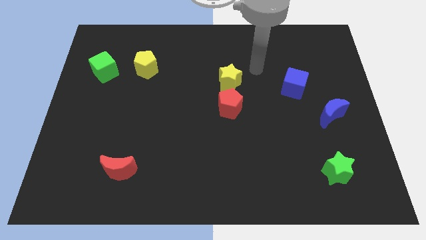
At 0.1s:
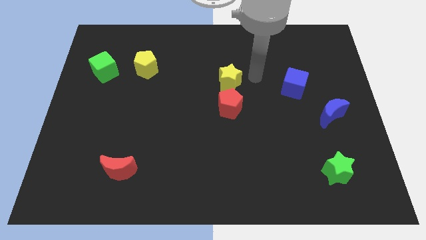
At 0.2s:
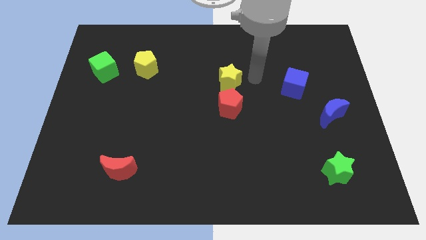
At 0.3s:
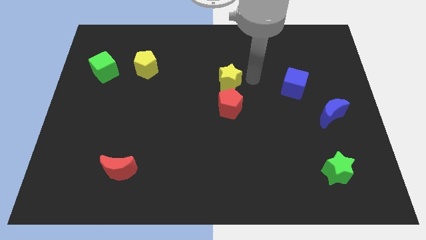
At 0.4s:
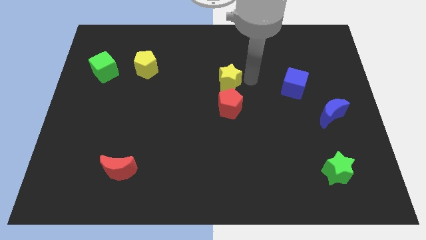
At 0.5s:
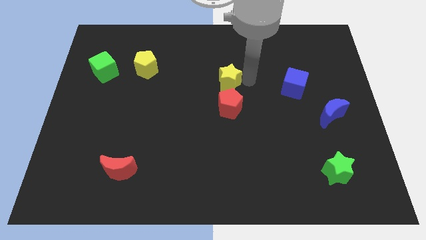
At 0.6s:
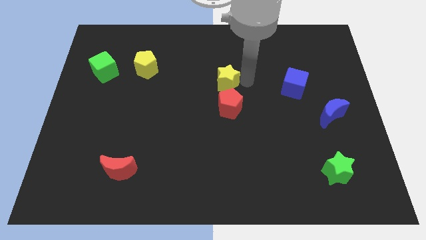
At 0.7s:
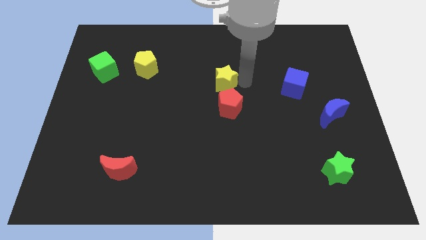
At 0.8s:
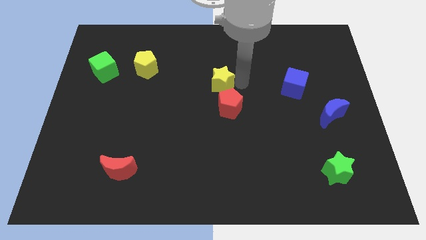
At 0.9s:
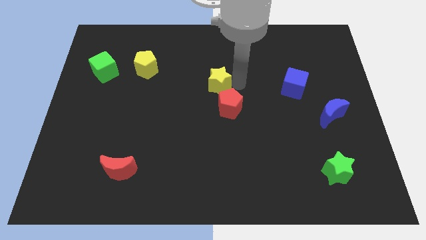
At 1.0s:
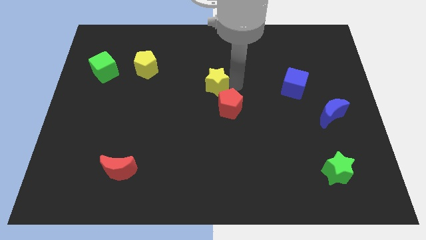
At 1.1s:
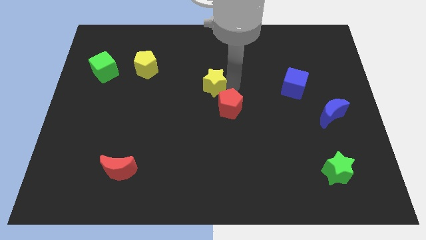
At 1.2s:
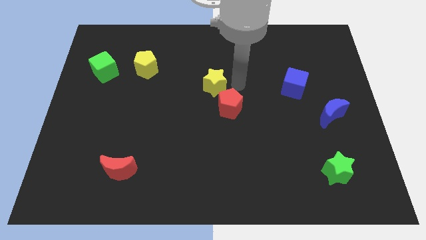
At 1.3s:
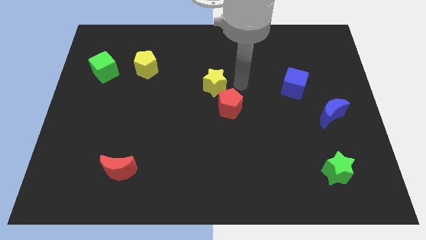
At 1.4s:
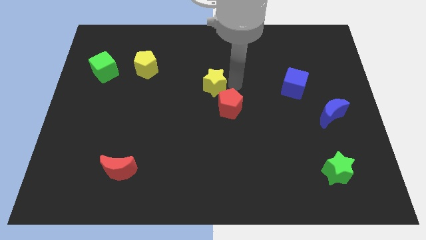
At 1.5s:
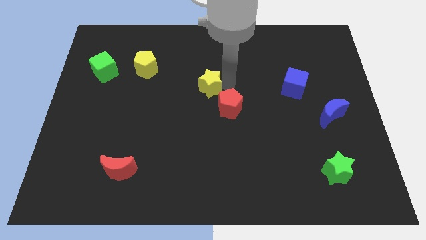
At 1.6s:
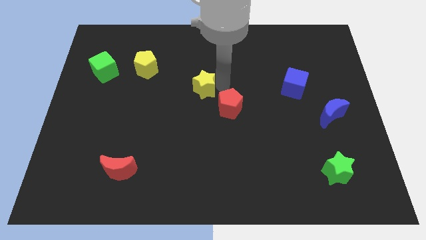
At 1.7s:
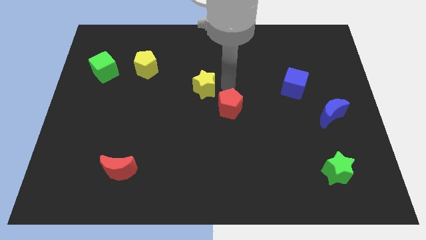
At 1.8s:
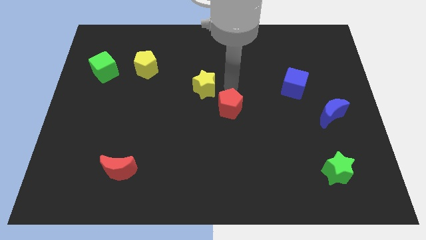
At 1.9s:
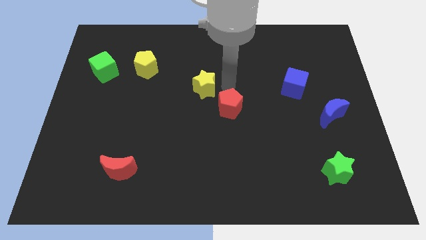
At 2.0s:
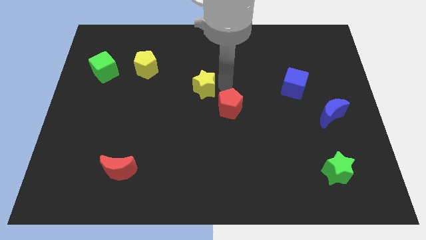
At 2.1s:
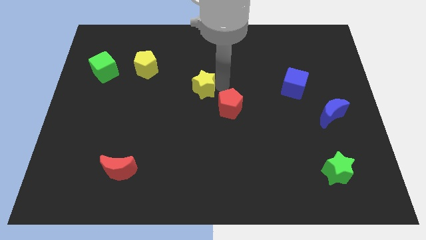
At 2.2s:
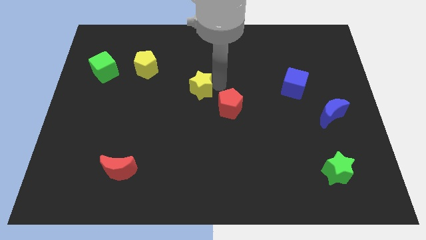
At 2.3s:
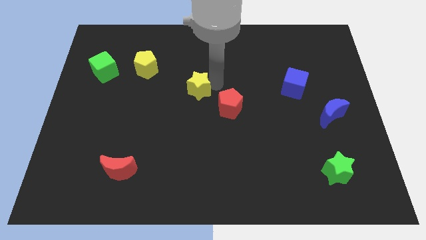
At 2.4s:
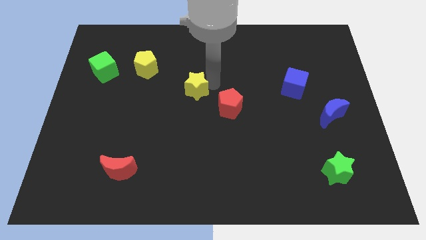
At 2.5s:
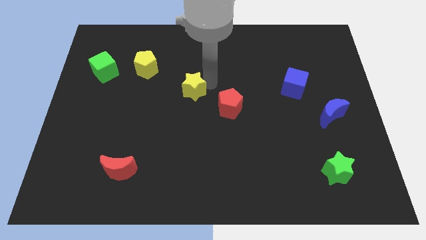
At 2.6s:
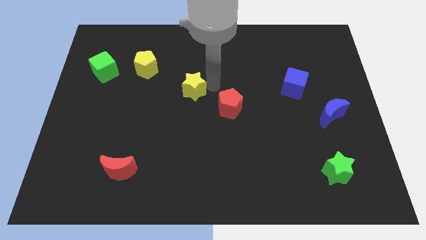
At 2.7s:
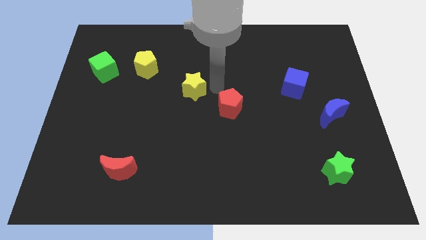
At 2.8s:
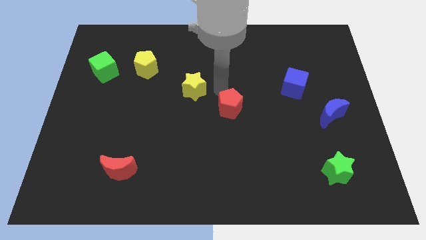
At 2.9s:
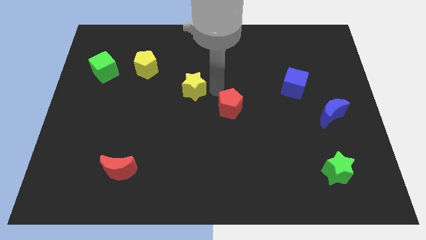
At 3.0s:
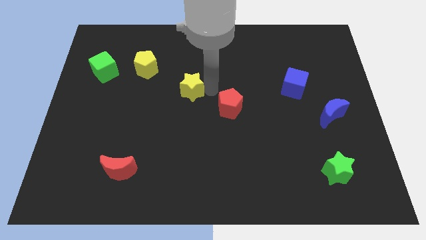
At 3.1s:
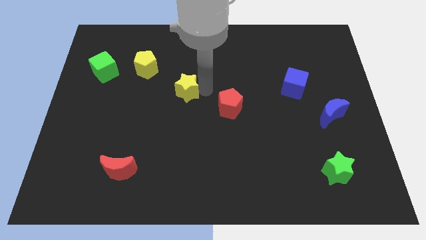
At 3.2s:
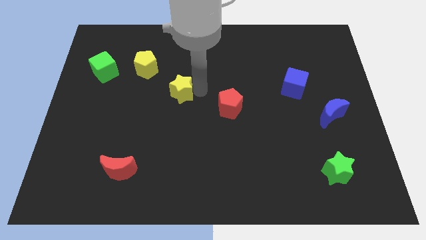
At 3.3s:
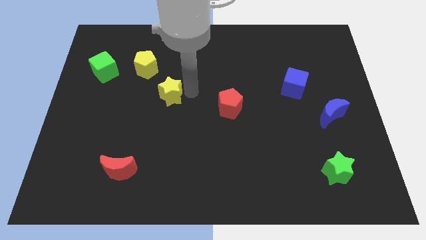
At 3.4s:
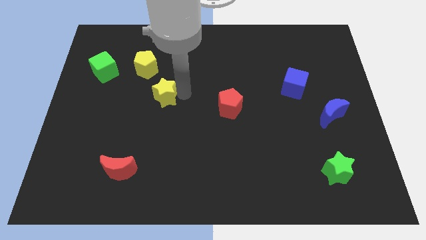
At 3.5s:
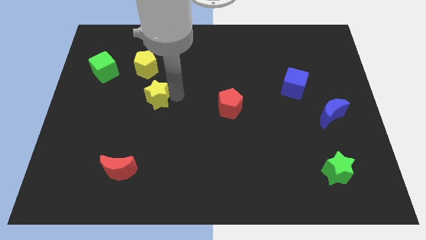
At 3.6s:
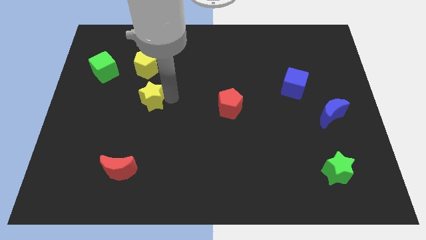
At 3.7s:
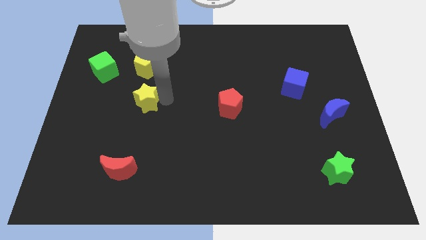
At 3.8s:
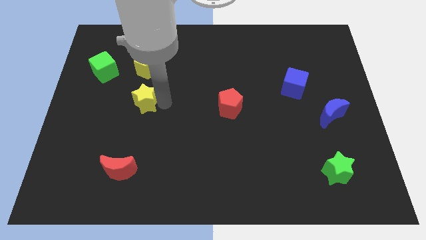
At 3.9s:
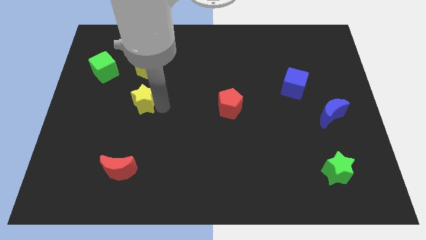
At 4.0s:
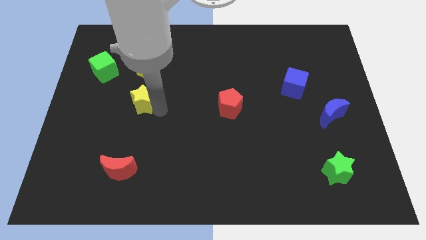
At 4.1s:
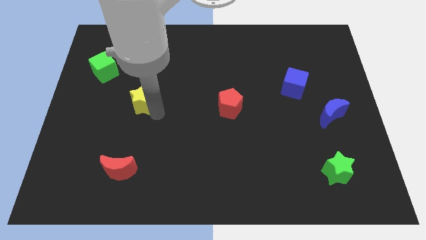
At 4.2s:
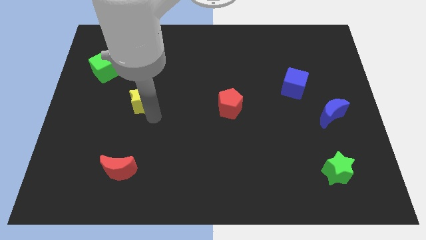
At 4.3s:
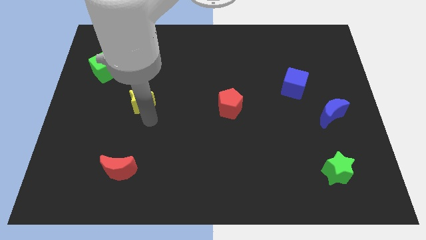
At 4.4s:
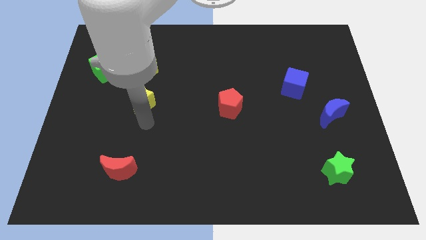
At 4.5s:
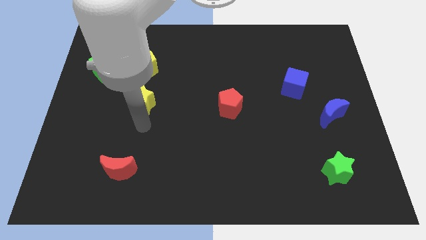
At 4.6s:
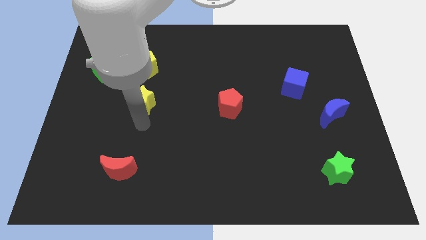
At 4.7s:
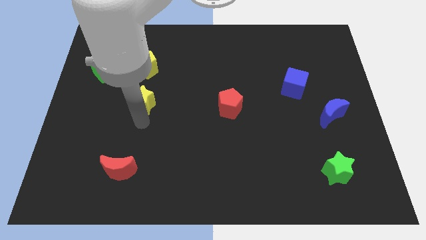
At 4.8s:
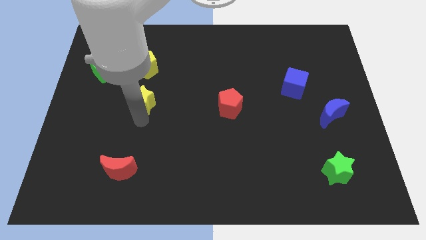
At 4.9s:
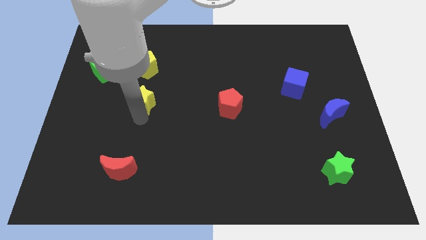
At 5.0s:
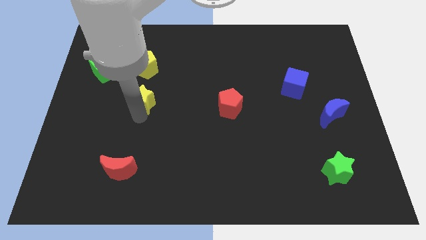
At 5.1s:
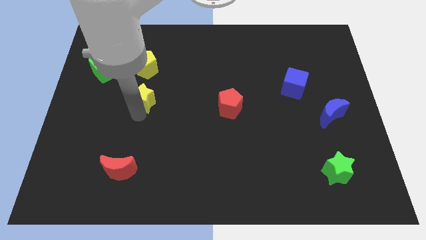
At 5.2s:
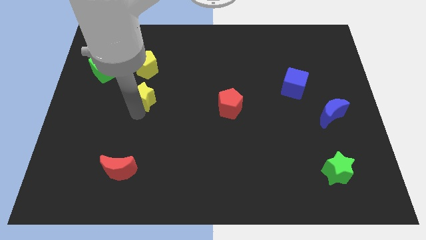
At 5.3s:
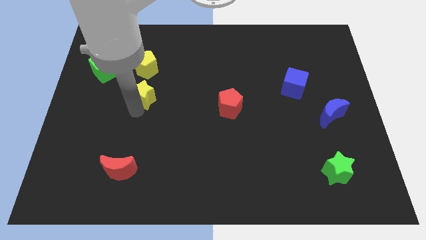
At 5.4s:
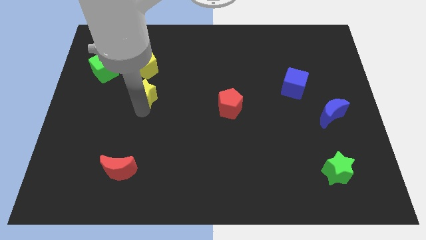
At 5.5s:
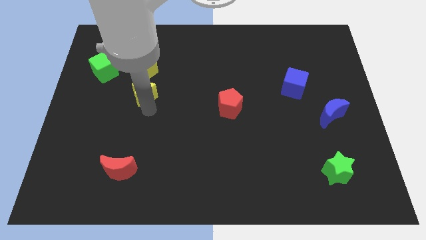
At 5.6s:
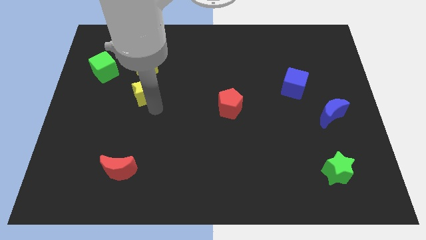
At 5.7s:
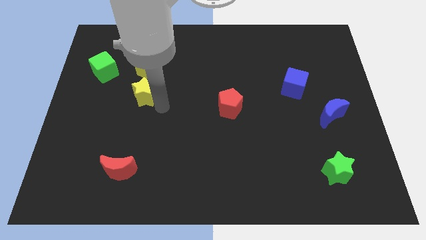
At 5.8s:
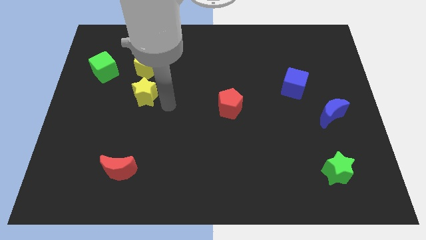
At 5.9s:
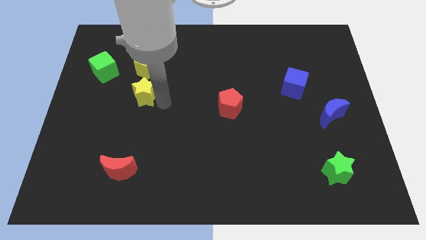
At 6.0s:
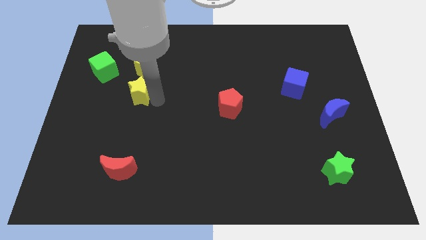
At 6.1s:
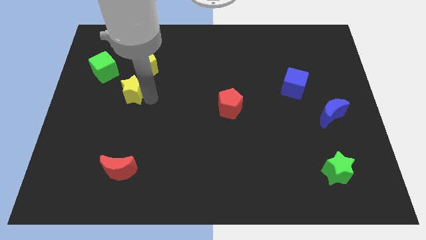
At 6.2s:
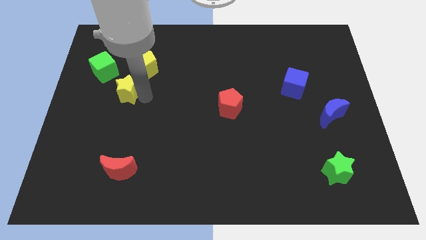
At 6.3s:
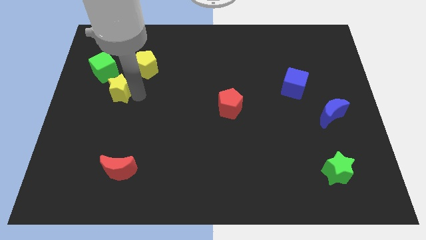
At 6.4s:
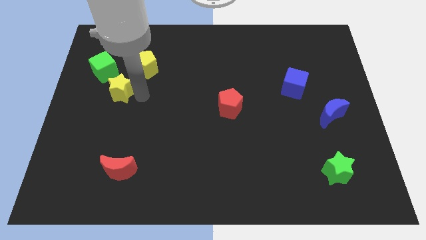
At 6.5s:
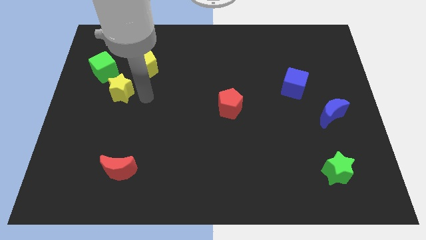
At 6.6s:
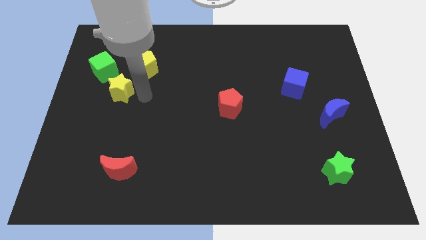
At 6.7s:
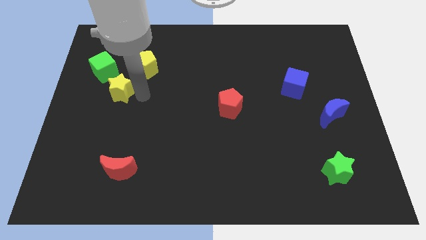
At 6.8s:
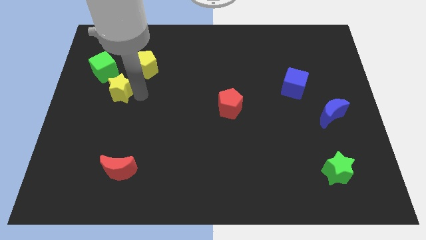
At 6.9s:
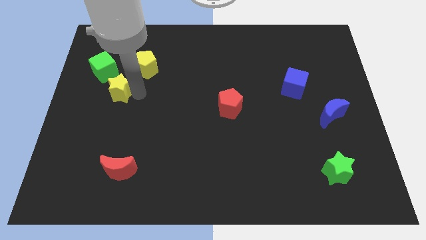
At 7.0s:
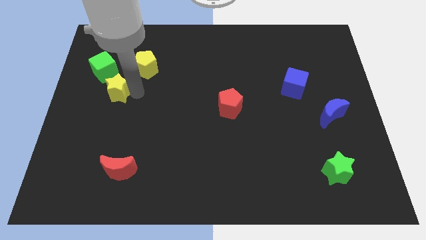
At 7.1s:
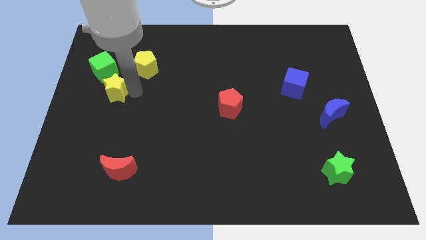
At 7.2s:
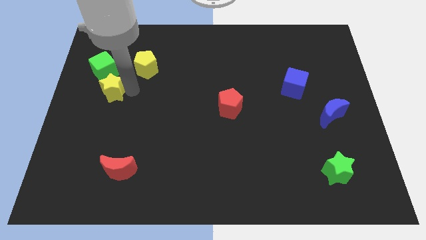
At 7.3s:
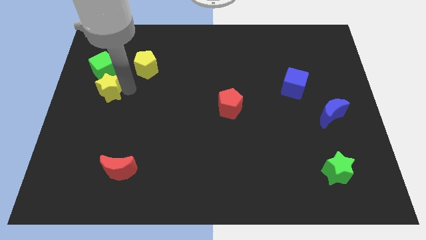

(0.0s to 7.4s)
push the yellow star to the left side
